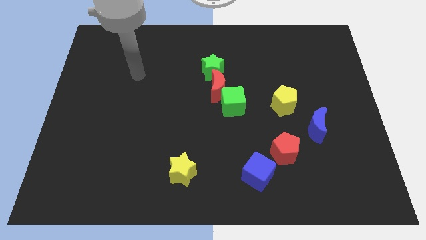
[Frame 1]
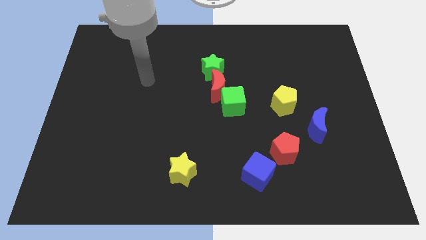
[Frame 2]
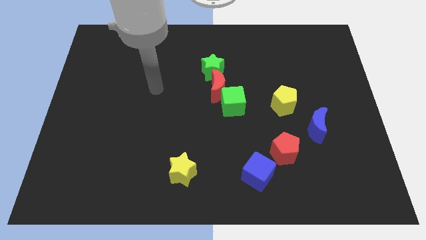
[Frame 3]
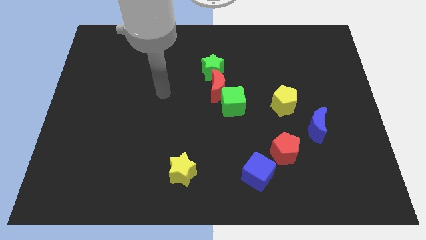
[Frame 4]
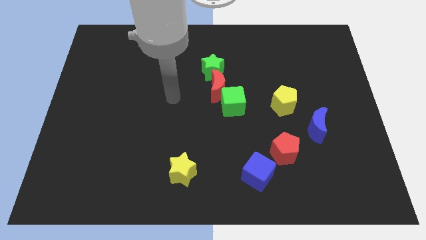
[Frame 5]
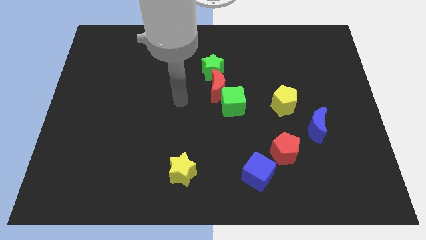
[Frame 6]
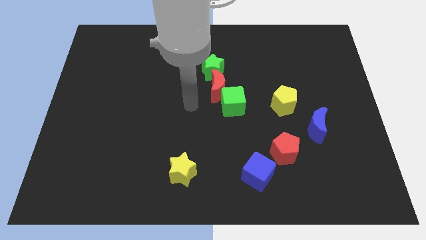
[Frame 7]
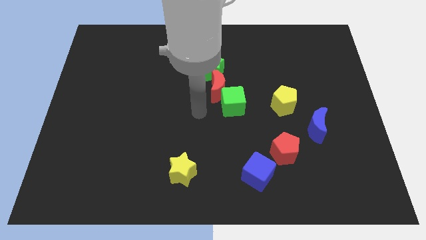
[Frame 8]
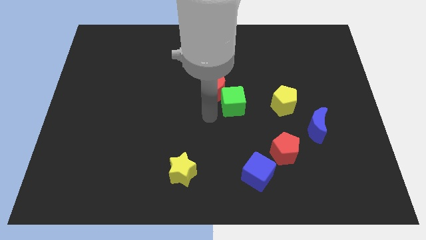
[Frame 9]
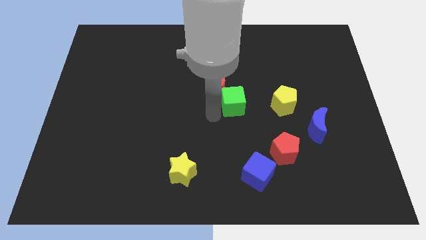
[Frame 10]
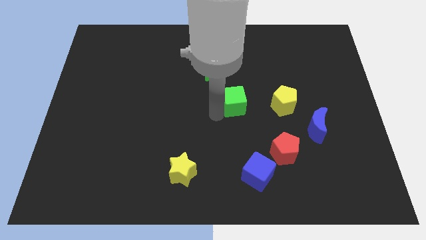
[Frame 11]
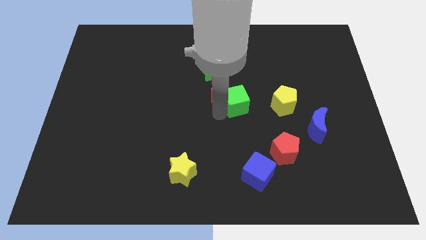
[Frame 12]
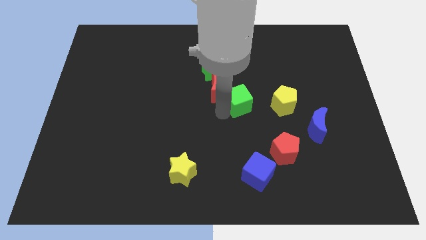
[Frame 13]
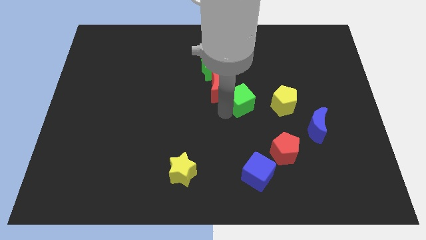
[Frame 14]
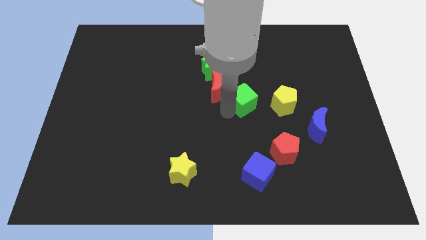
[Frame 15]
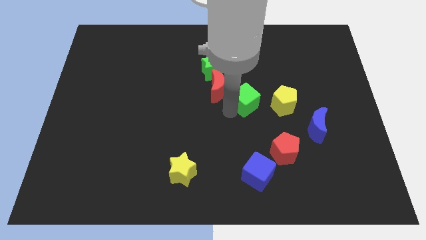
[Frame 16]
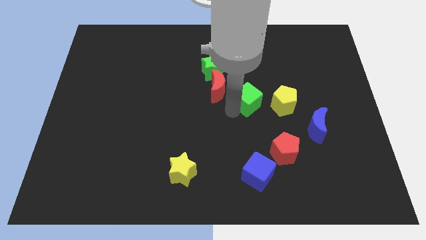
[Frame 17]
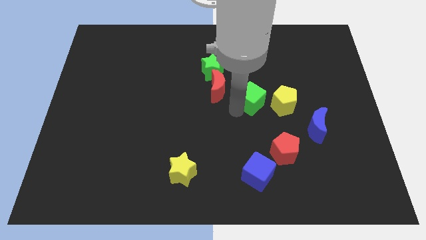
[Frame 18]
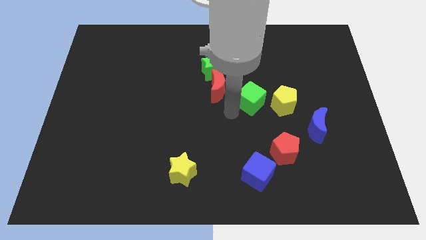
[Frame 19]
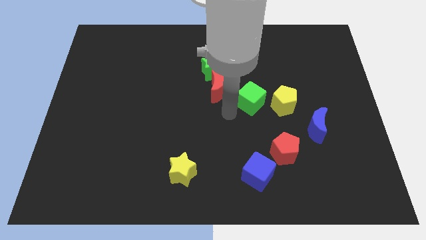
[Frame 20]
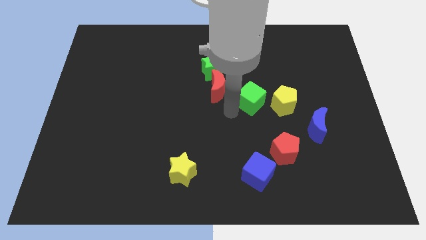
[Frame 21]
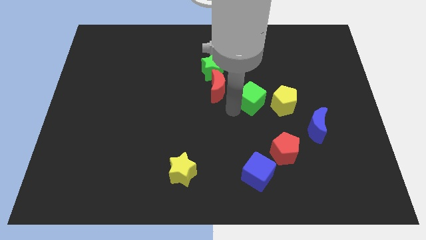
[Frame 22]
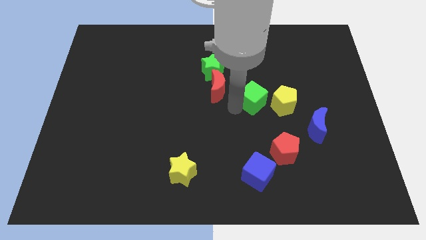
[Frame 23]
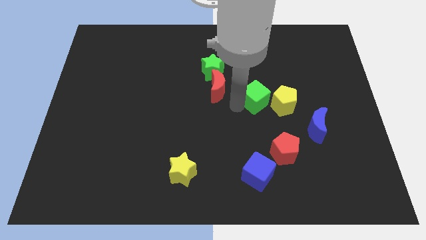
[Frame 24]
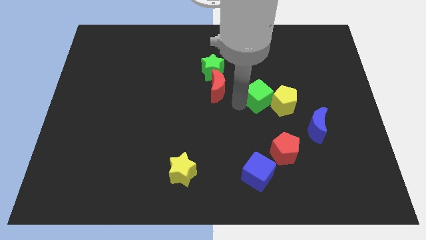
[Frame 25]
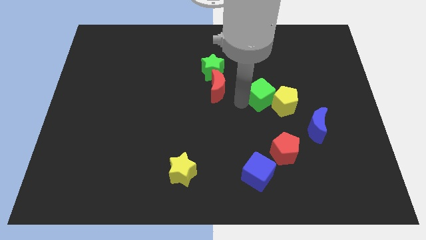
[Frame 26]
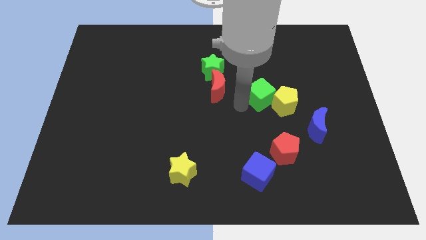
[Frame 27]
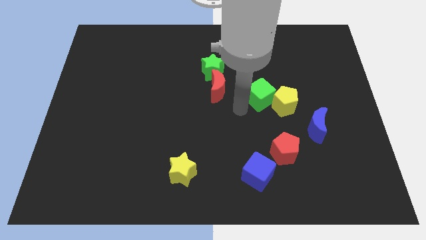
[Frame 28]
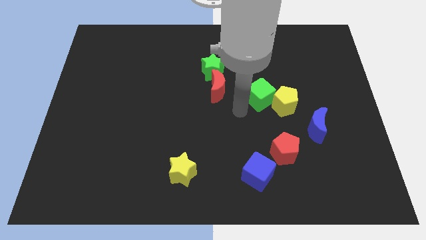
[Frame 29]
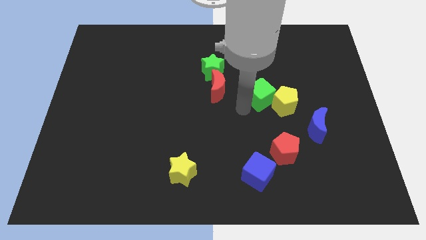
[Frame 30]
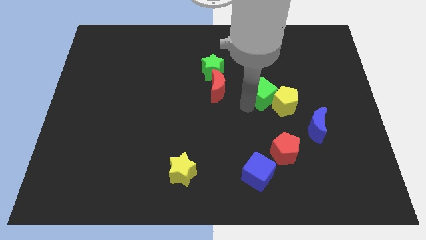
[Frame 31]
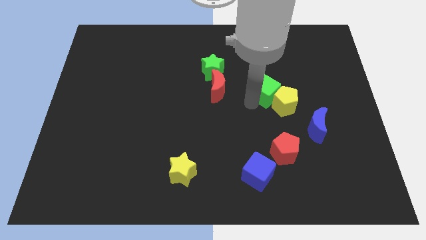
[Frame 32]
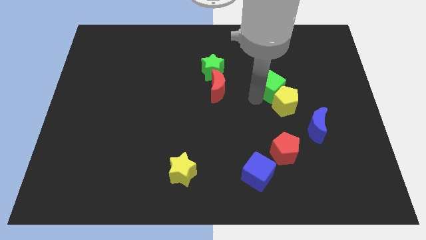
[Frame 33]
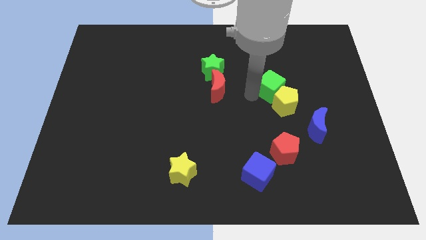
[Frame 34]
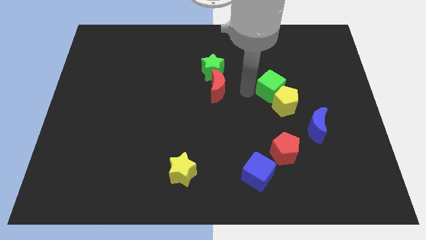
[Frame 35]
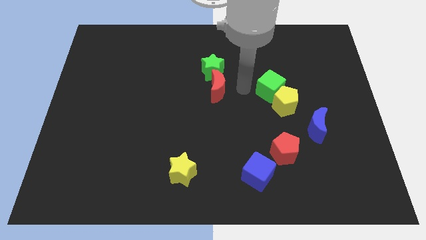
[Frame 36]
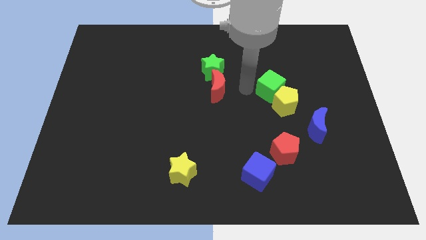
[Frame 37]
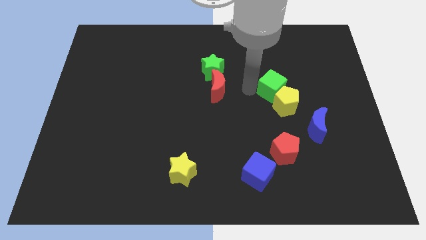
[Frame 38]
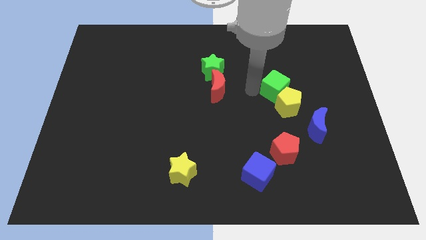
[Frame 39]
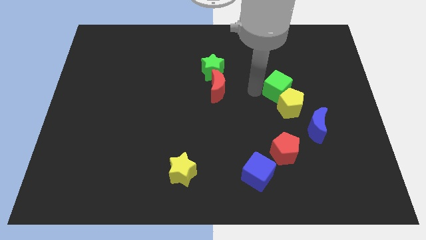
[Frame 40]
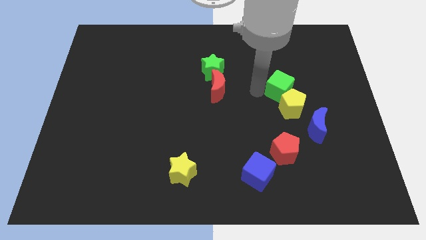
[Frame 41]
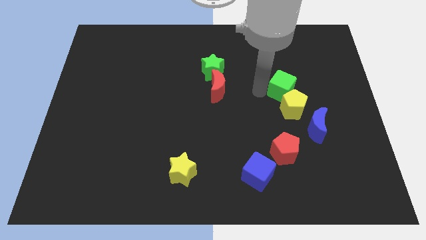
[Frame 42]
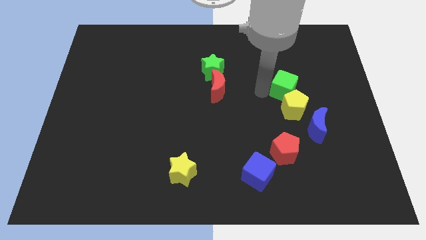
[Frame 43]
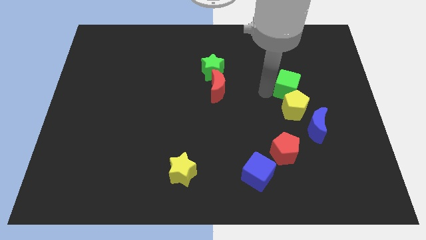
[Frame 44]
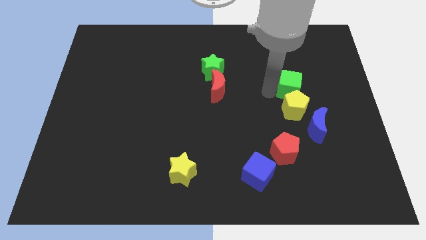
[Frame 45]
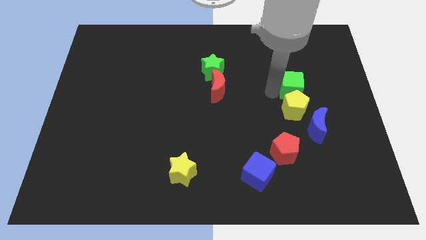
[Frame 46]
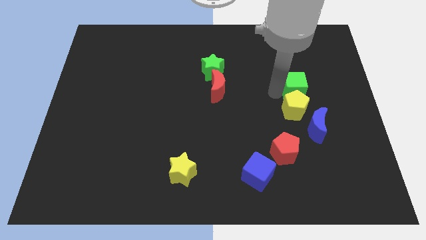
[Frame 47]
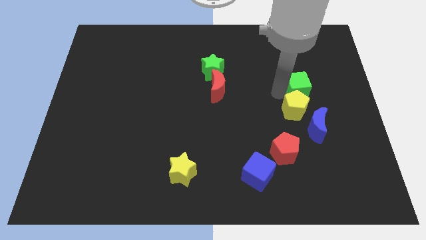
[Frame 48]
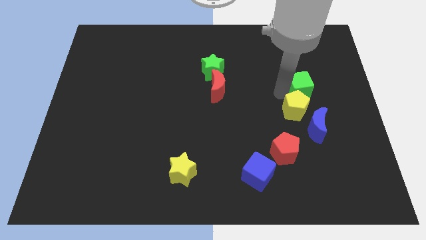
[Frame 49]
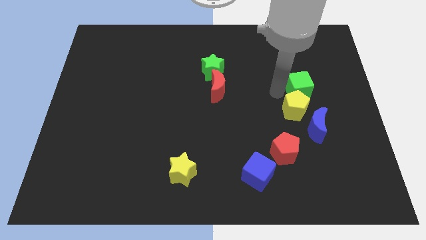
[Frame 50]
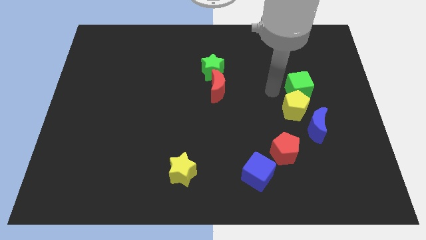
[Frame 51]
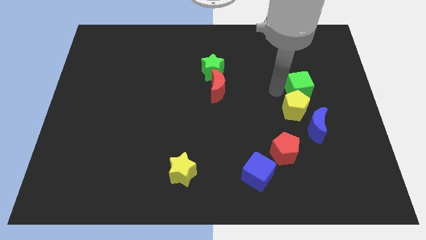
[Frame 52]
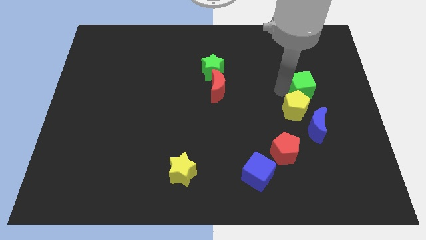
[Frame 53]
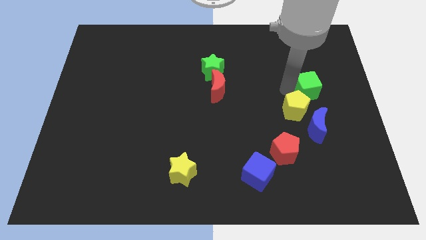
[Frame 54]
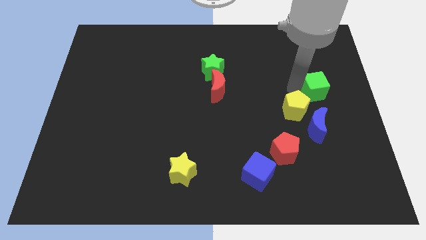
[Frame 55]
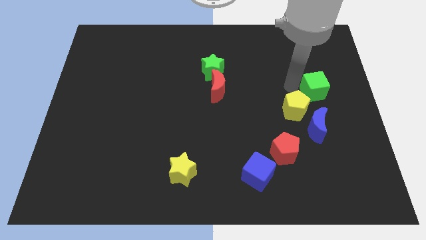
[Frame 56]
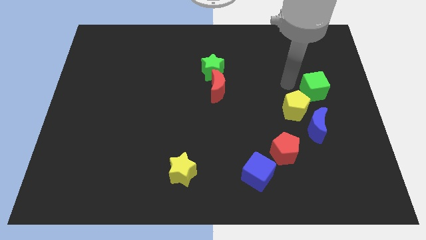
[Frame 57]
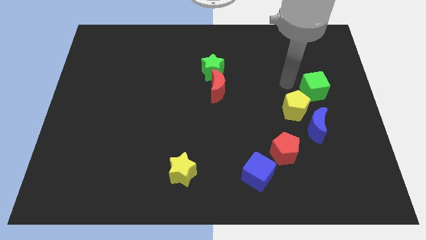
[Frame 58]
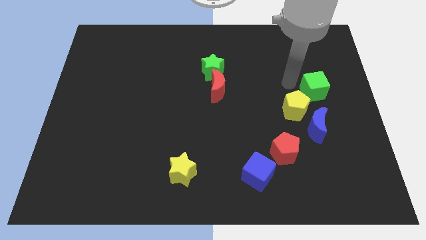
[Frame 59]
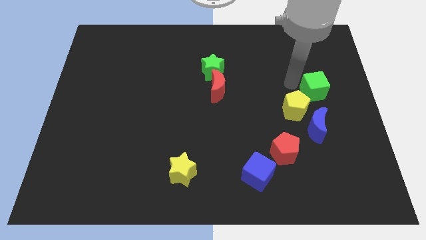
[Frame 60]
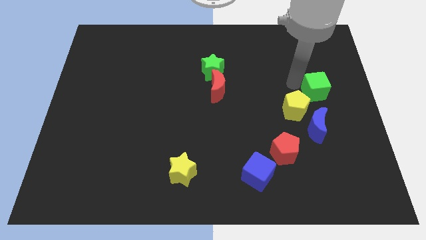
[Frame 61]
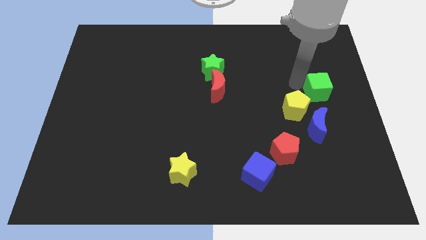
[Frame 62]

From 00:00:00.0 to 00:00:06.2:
push the green cube to the right side of the board
